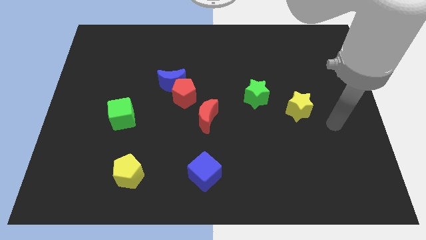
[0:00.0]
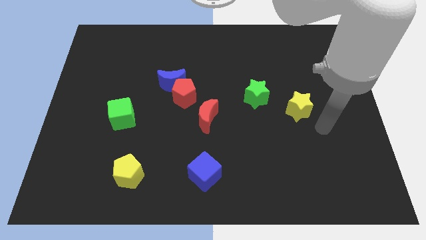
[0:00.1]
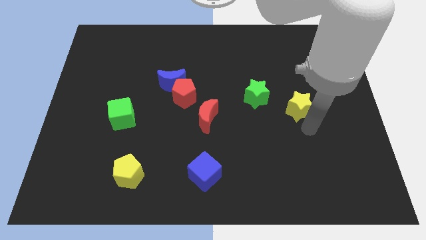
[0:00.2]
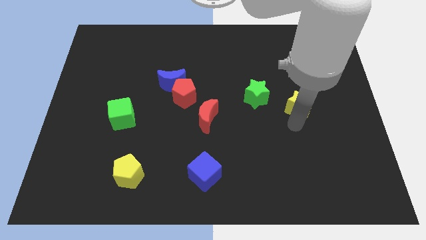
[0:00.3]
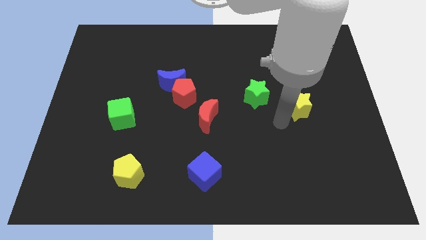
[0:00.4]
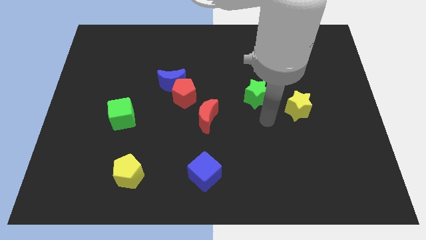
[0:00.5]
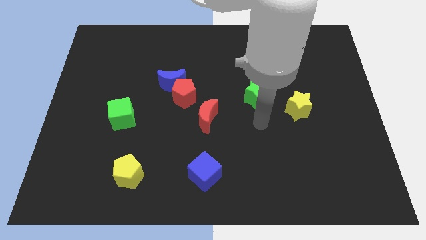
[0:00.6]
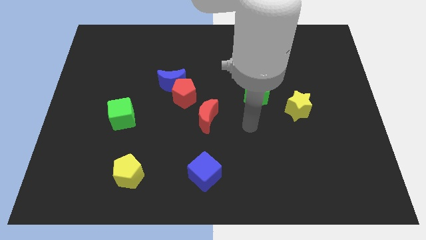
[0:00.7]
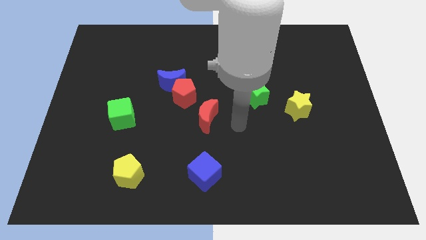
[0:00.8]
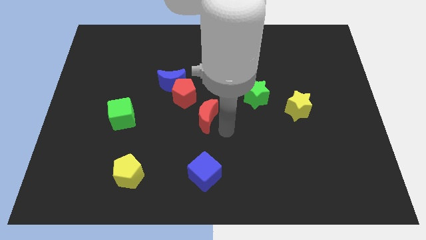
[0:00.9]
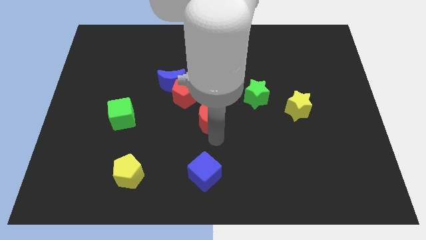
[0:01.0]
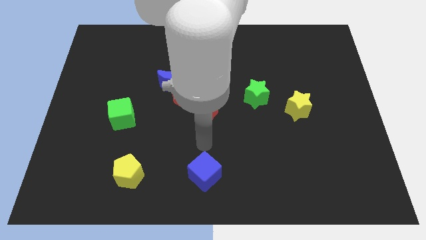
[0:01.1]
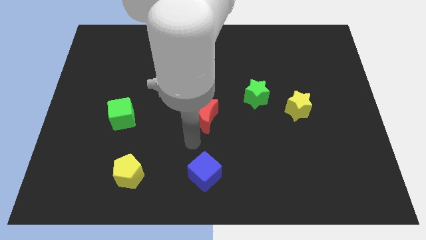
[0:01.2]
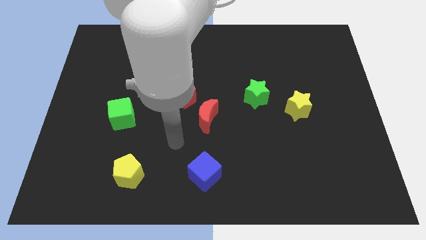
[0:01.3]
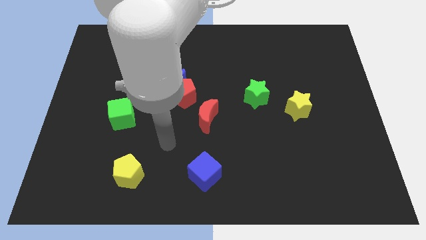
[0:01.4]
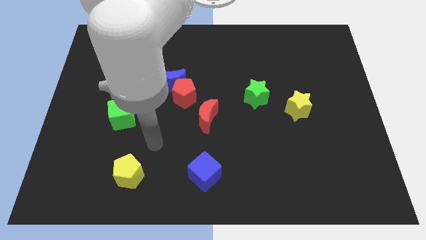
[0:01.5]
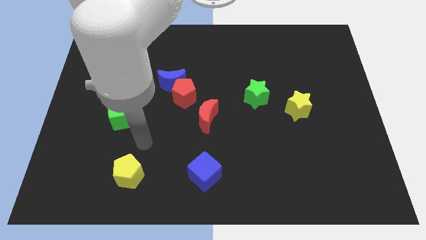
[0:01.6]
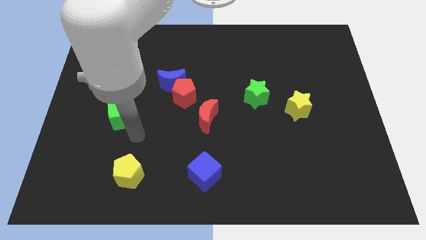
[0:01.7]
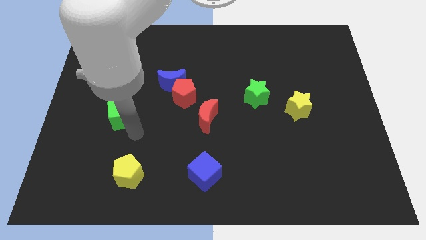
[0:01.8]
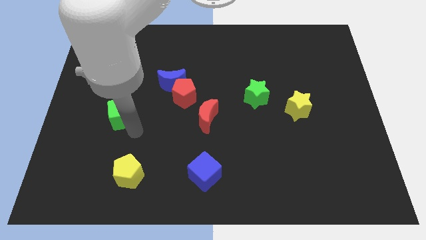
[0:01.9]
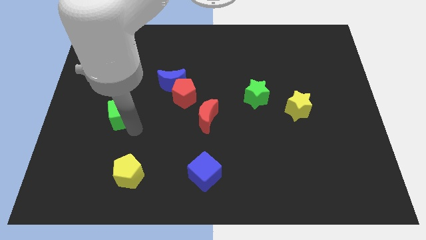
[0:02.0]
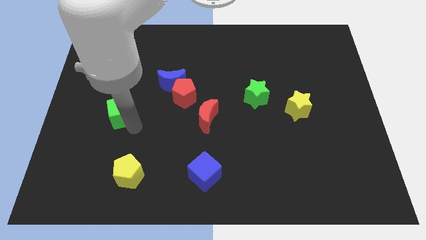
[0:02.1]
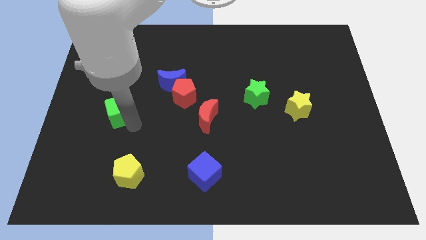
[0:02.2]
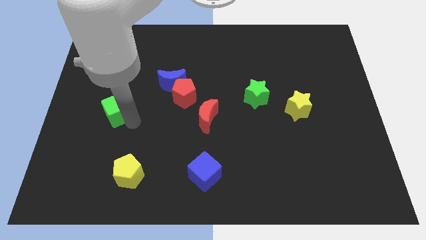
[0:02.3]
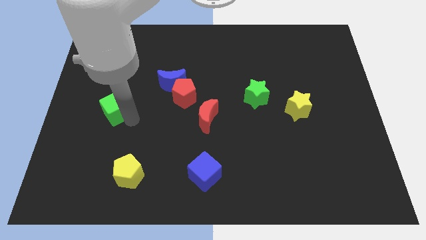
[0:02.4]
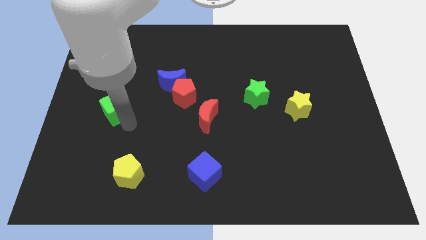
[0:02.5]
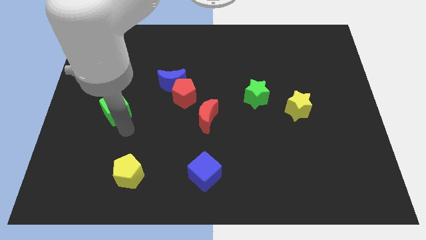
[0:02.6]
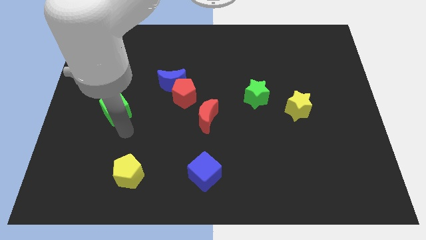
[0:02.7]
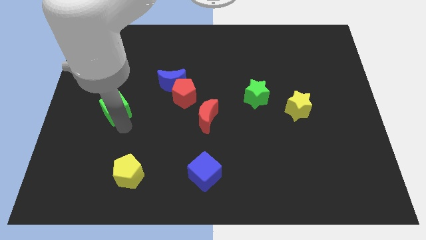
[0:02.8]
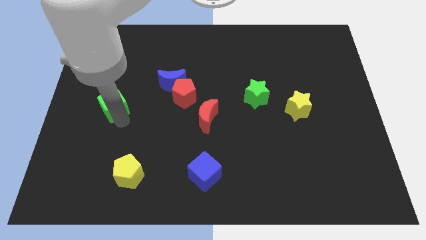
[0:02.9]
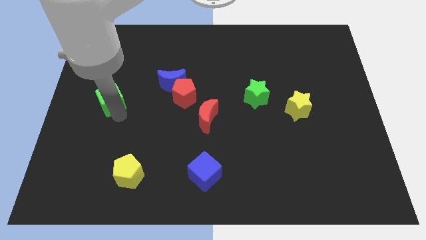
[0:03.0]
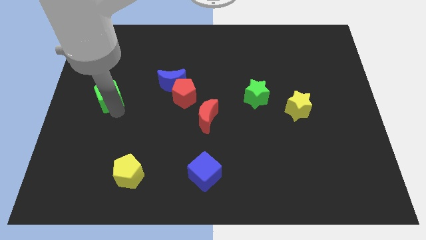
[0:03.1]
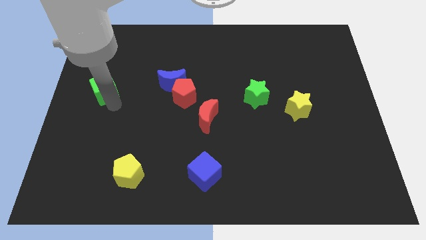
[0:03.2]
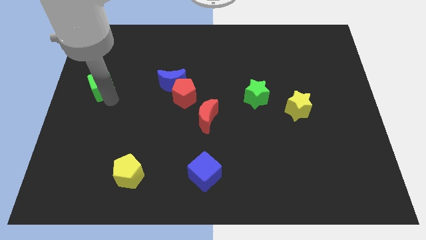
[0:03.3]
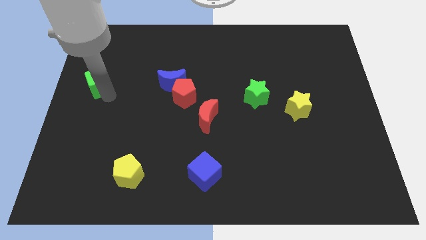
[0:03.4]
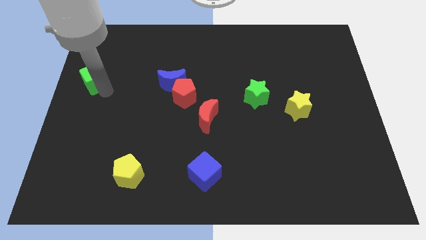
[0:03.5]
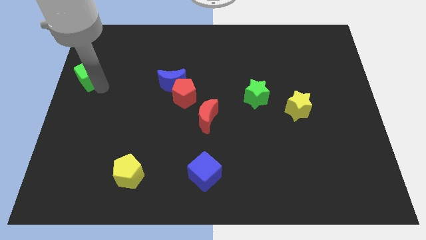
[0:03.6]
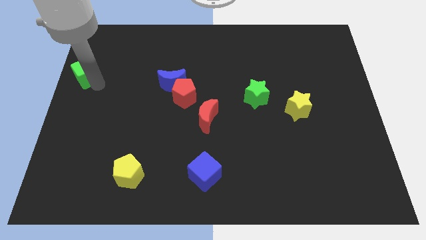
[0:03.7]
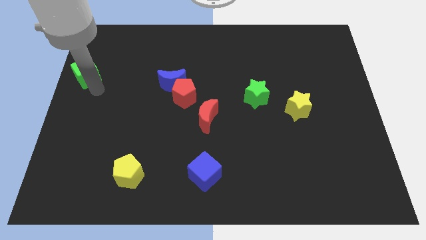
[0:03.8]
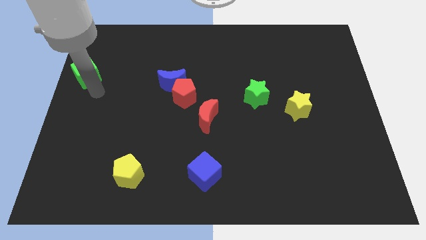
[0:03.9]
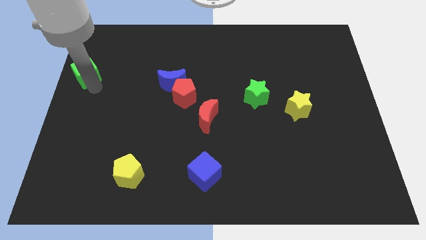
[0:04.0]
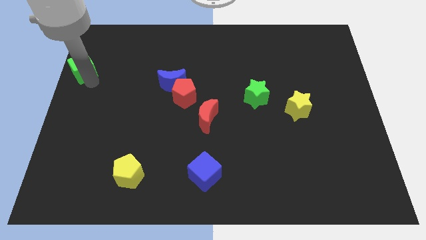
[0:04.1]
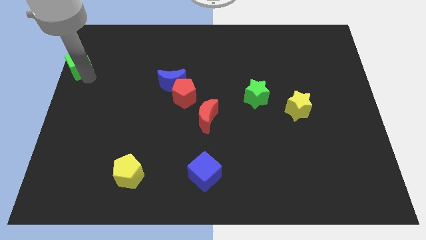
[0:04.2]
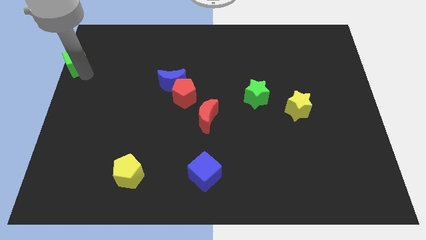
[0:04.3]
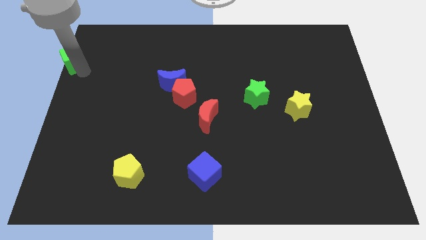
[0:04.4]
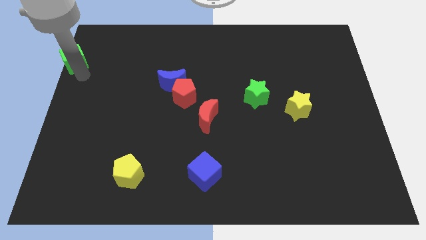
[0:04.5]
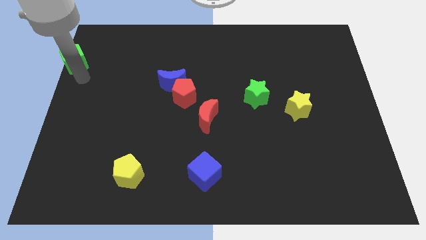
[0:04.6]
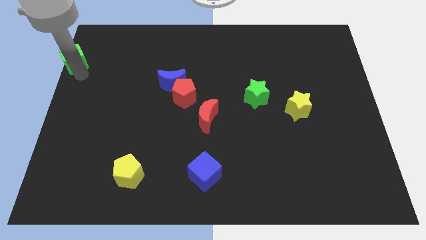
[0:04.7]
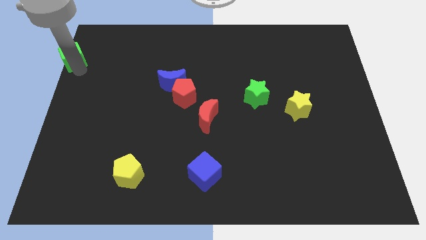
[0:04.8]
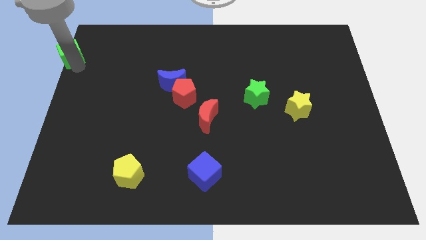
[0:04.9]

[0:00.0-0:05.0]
slide the green cube to the top left of the board
